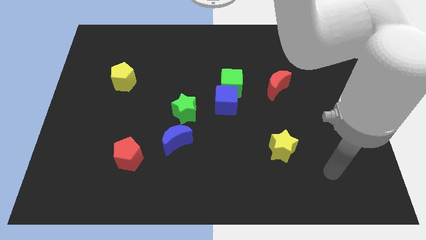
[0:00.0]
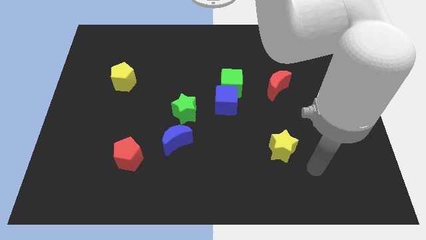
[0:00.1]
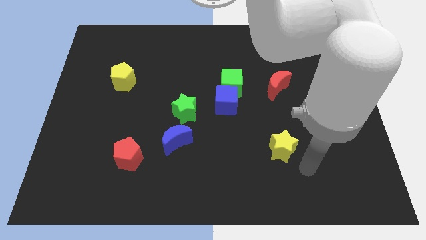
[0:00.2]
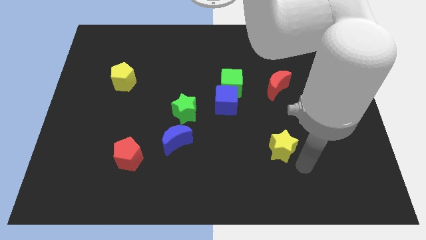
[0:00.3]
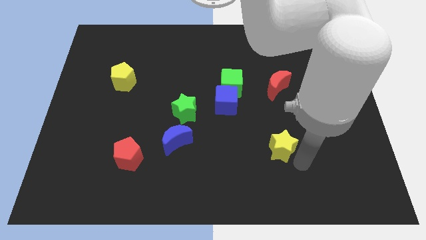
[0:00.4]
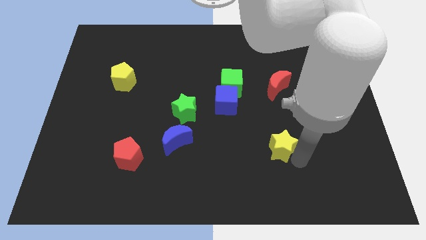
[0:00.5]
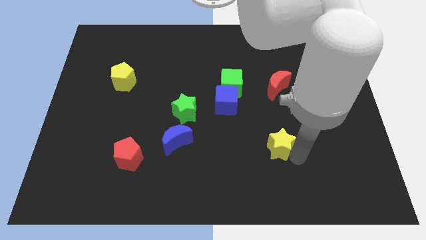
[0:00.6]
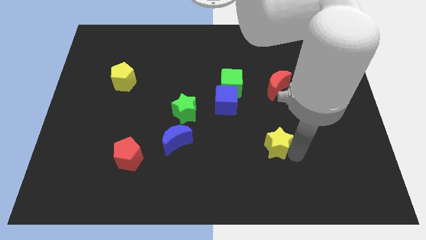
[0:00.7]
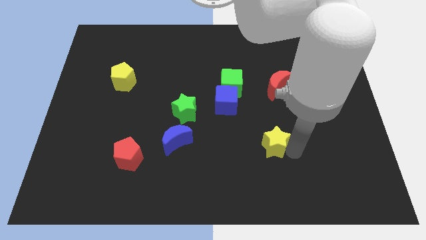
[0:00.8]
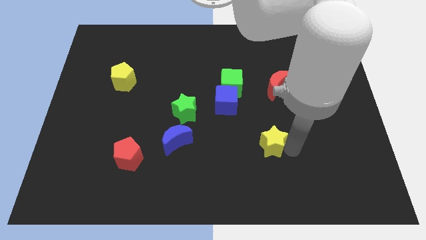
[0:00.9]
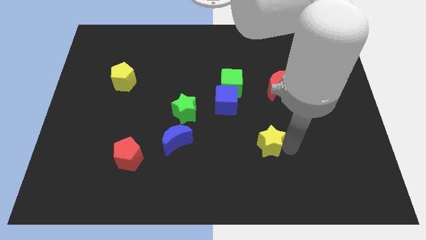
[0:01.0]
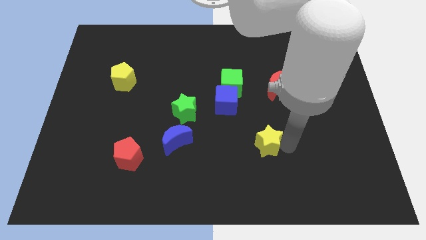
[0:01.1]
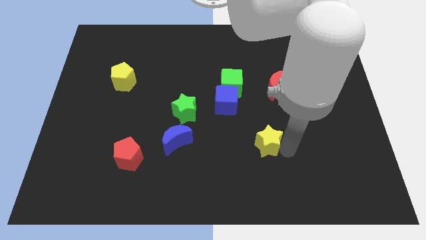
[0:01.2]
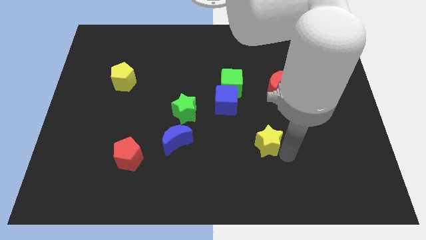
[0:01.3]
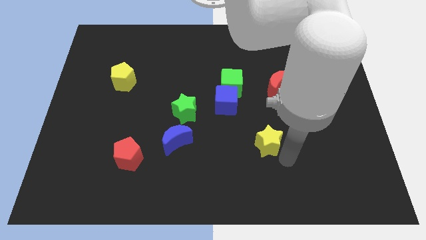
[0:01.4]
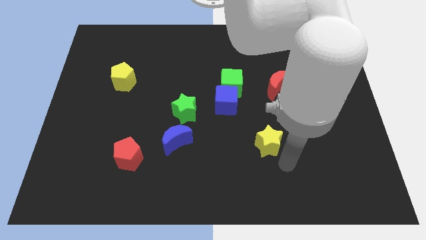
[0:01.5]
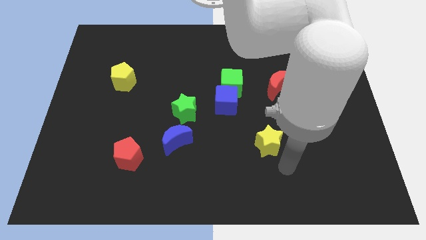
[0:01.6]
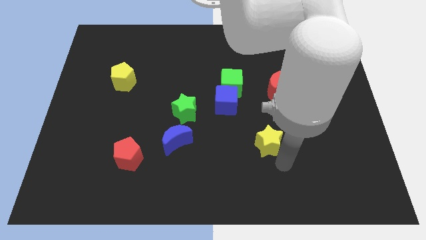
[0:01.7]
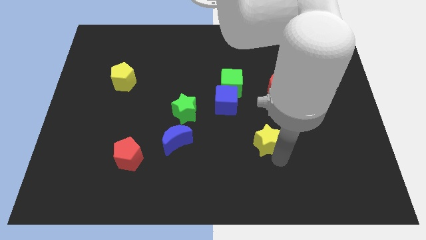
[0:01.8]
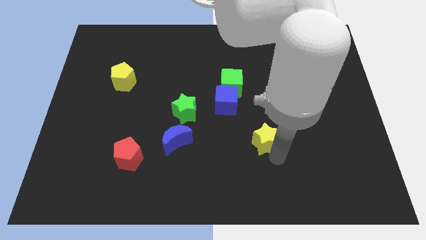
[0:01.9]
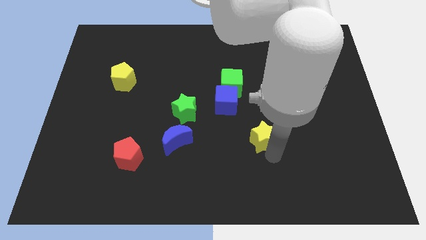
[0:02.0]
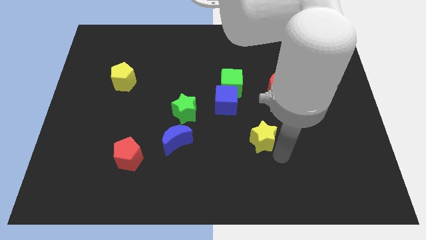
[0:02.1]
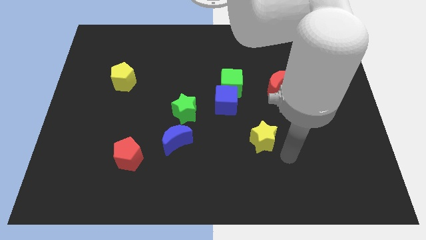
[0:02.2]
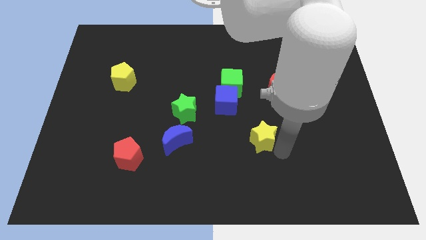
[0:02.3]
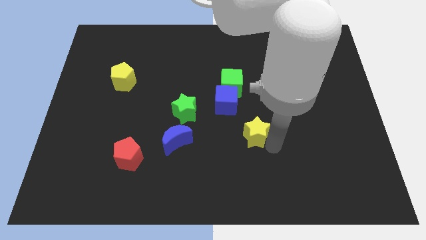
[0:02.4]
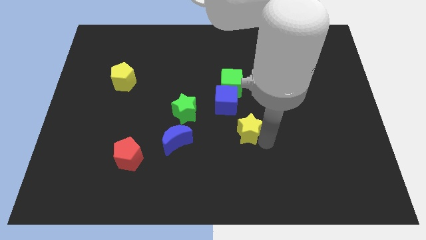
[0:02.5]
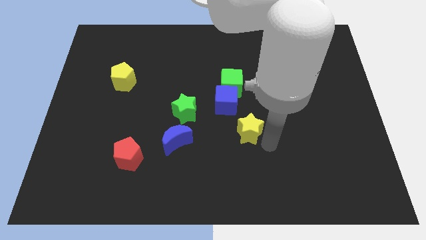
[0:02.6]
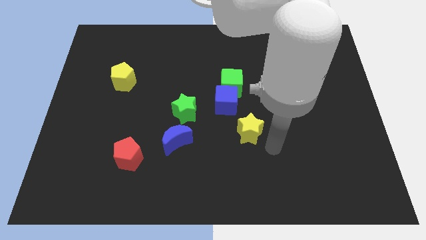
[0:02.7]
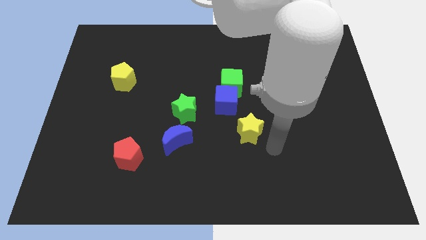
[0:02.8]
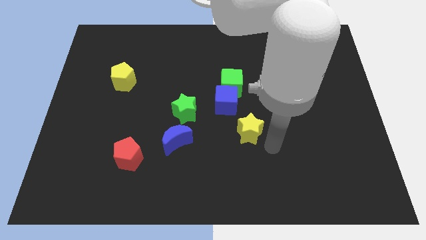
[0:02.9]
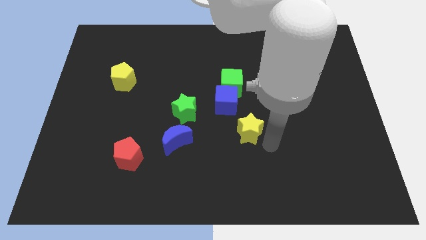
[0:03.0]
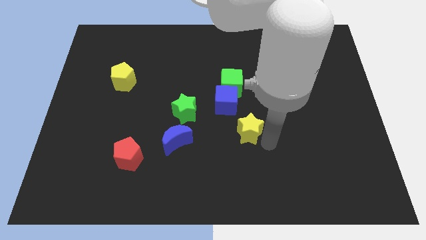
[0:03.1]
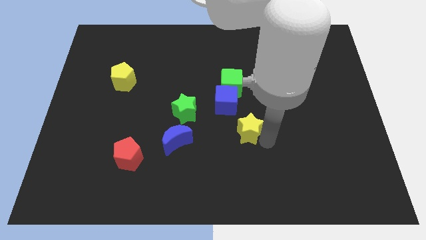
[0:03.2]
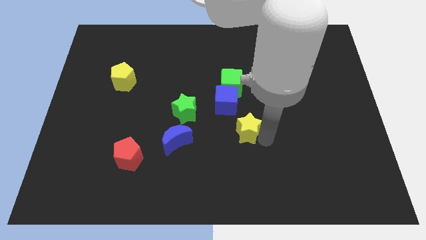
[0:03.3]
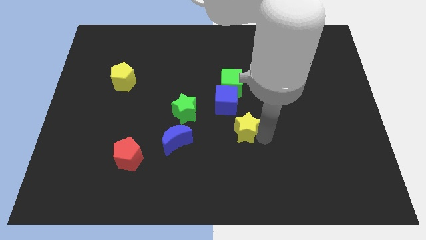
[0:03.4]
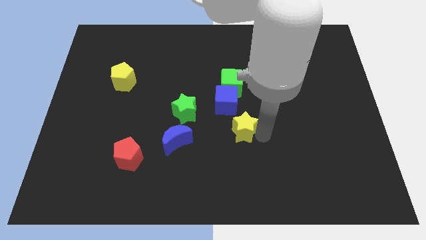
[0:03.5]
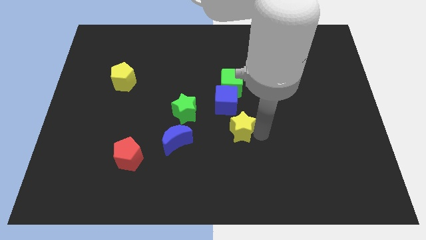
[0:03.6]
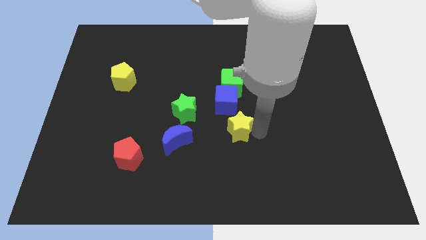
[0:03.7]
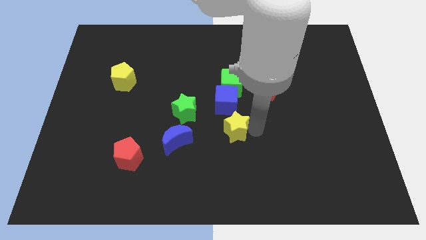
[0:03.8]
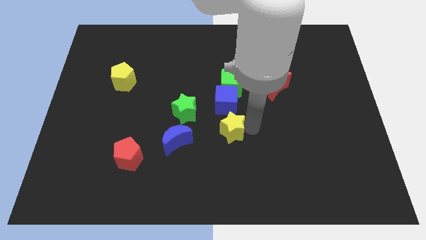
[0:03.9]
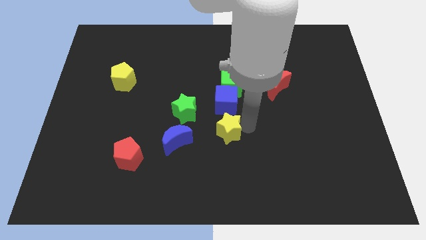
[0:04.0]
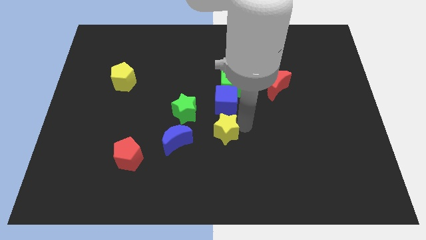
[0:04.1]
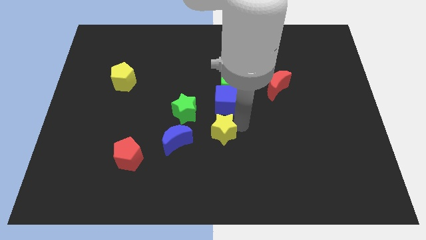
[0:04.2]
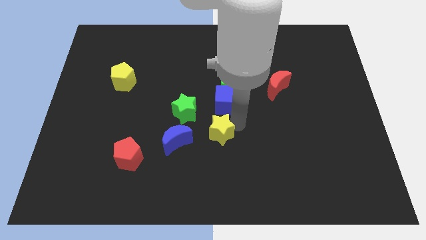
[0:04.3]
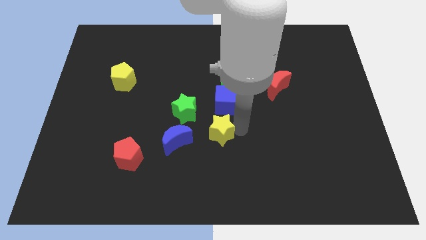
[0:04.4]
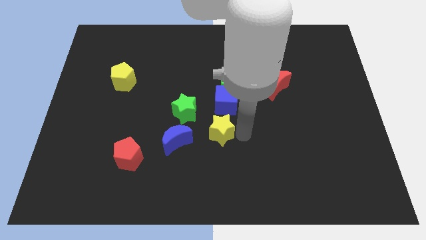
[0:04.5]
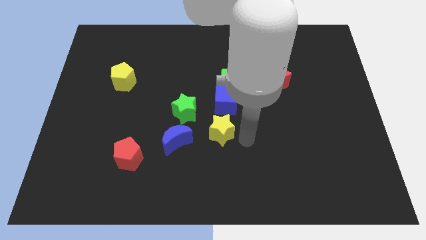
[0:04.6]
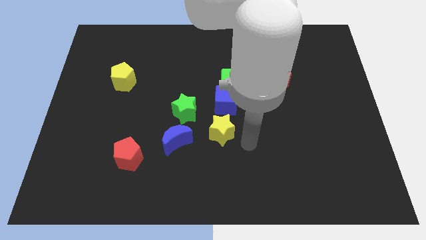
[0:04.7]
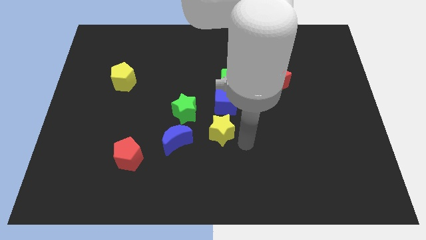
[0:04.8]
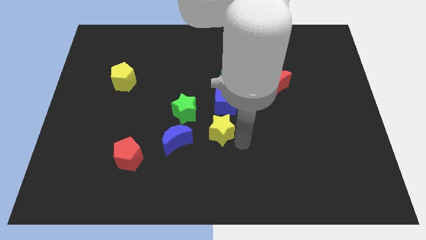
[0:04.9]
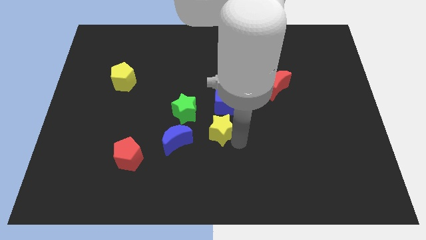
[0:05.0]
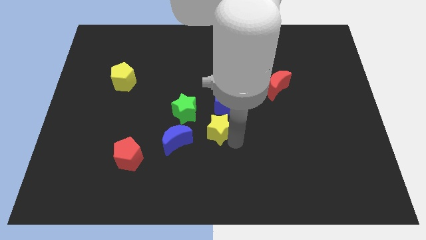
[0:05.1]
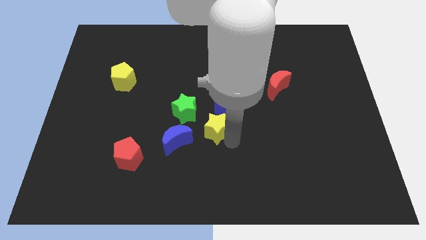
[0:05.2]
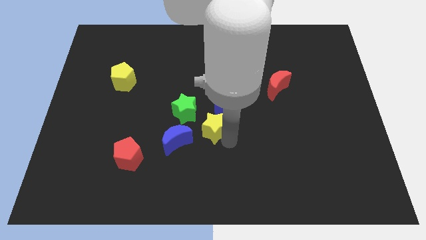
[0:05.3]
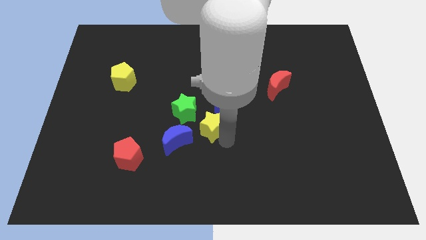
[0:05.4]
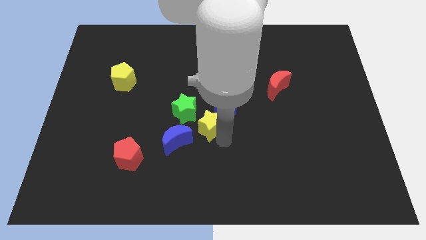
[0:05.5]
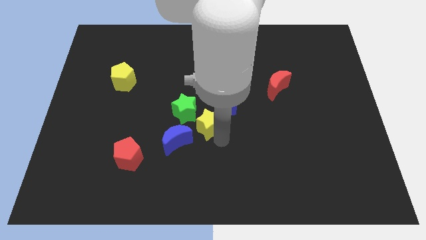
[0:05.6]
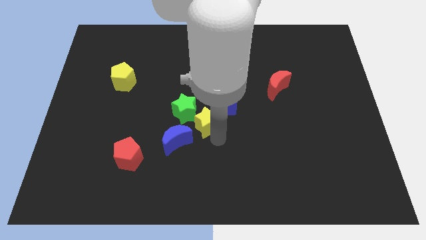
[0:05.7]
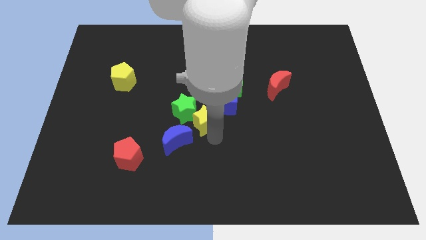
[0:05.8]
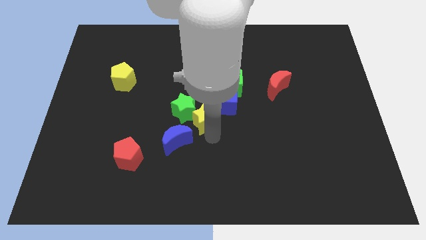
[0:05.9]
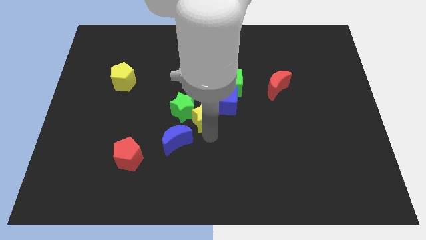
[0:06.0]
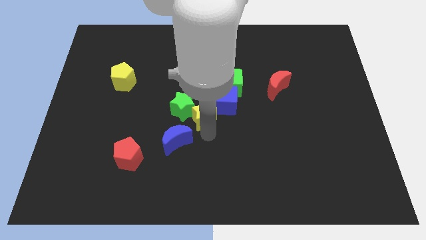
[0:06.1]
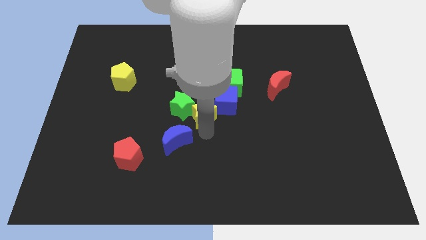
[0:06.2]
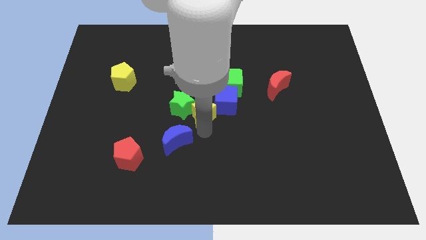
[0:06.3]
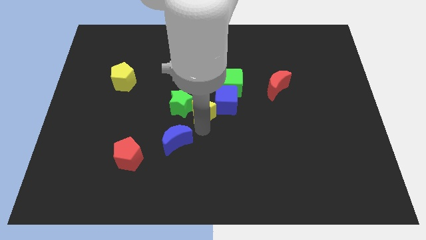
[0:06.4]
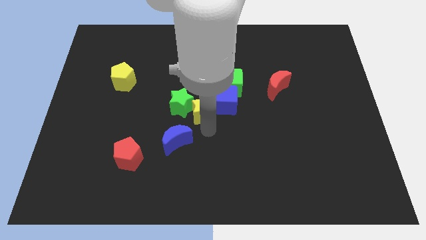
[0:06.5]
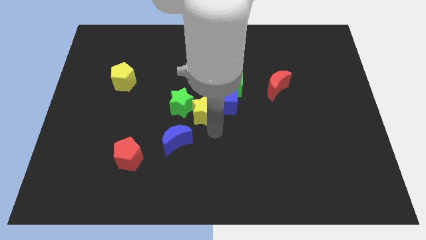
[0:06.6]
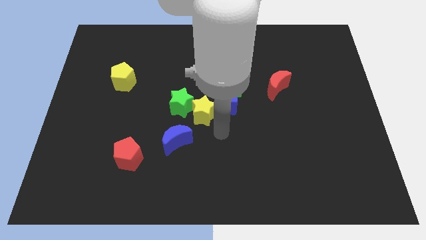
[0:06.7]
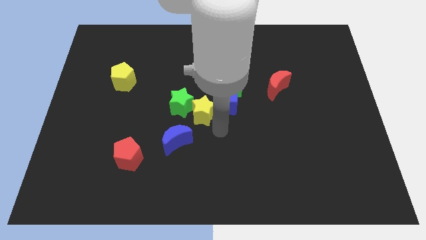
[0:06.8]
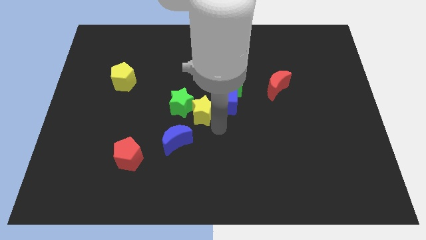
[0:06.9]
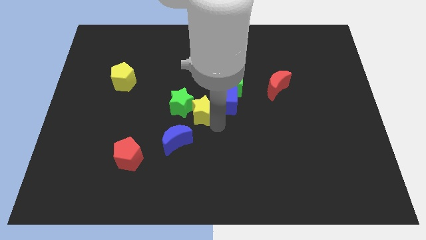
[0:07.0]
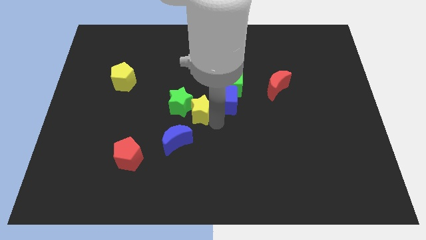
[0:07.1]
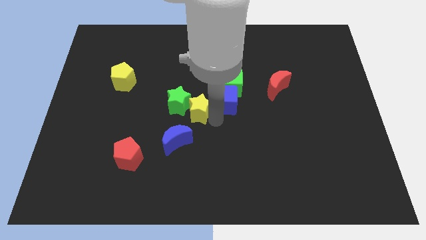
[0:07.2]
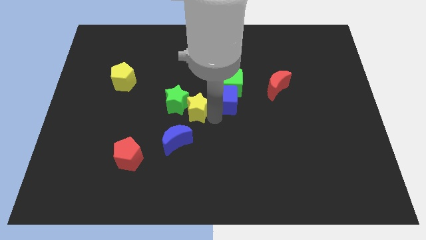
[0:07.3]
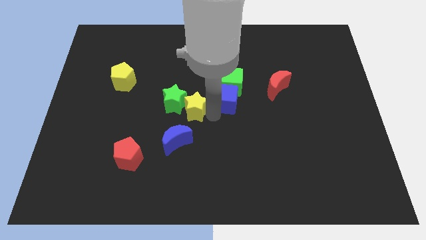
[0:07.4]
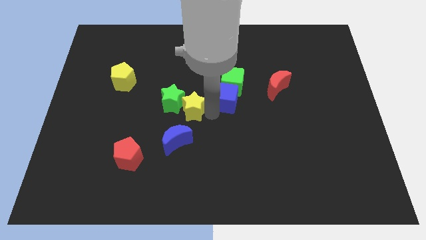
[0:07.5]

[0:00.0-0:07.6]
push the yellow star up and left diagonally
